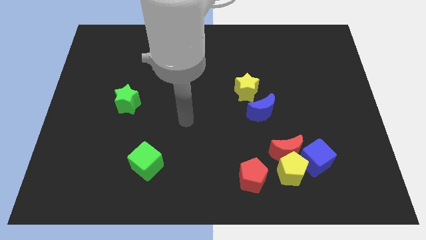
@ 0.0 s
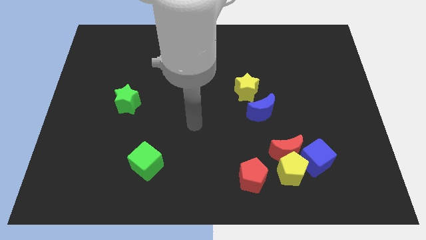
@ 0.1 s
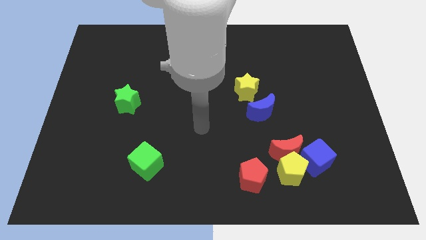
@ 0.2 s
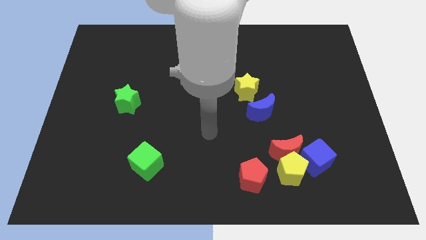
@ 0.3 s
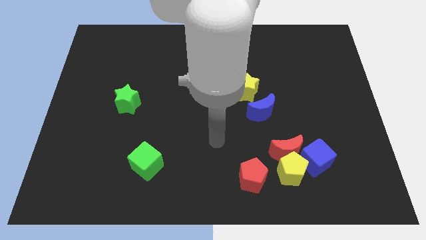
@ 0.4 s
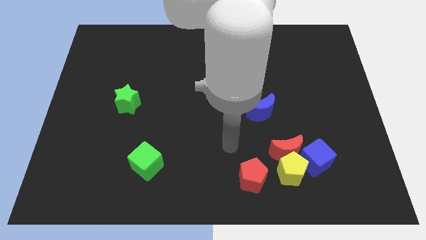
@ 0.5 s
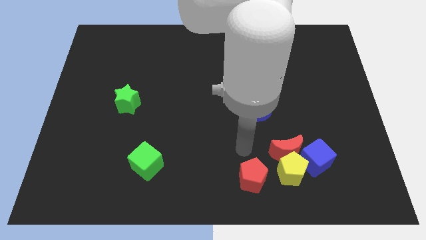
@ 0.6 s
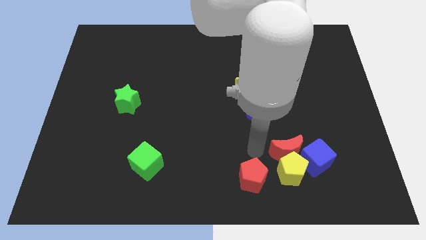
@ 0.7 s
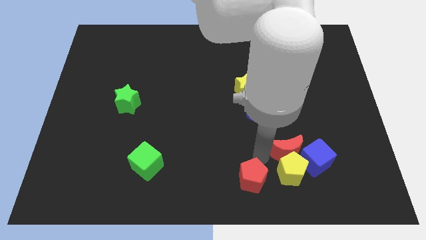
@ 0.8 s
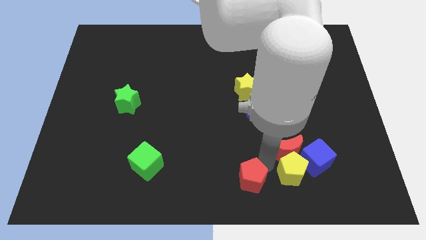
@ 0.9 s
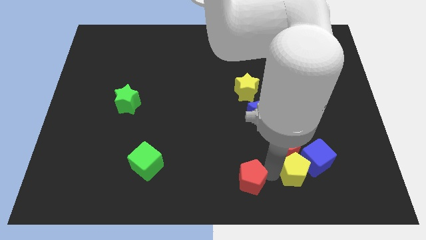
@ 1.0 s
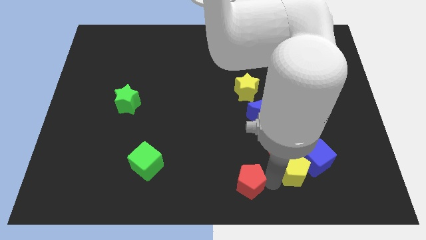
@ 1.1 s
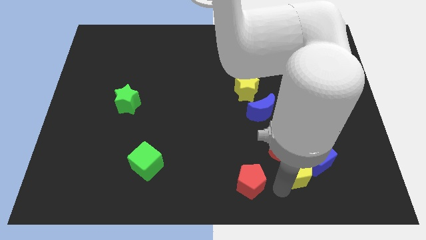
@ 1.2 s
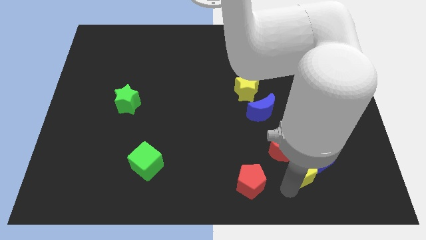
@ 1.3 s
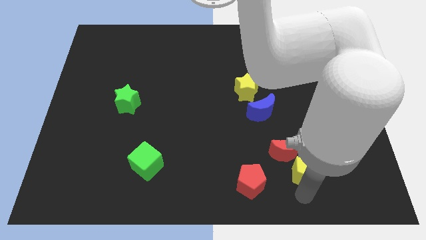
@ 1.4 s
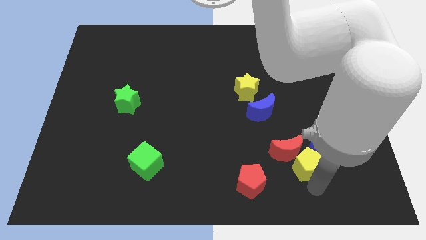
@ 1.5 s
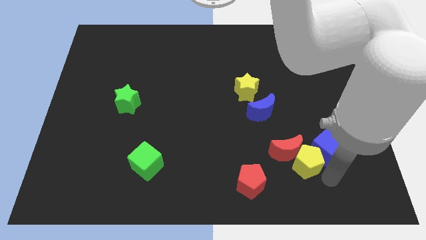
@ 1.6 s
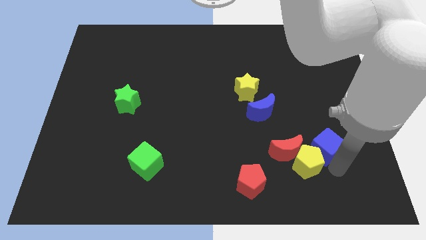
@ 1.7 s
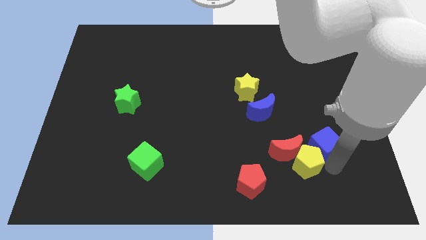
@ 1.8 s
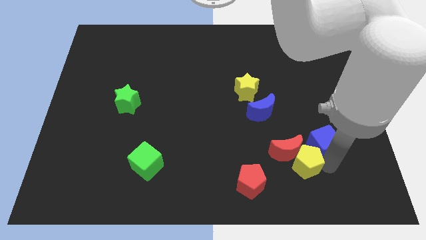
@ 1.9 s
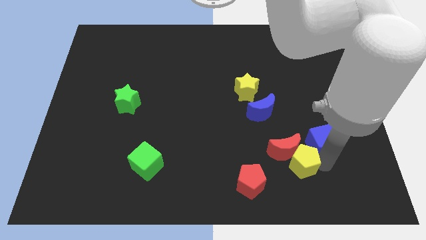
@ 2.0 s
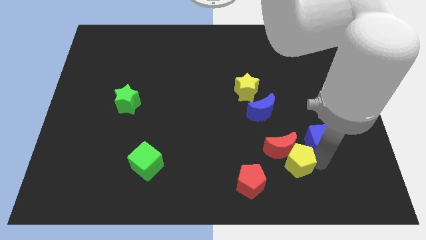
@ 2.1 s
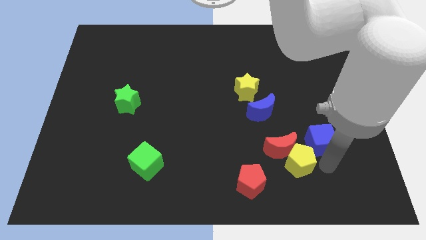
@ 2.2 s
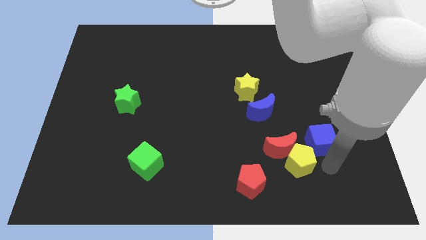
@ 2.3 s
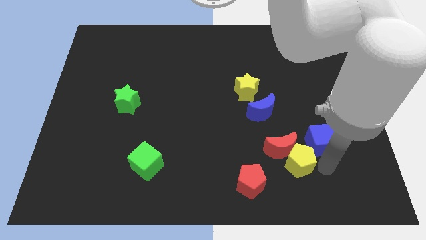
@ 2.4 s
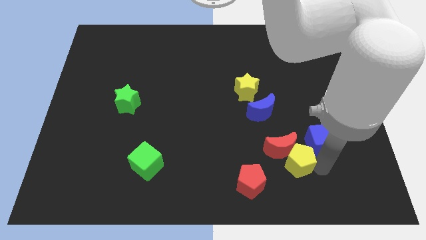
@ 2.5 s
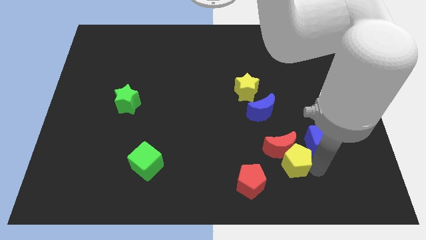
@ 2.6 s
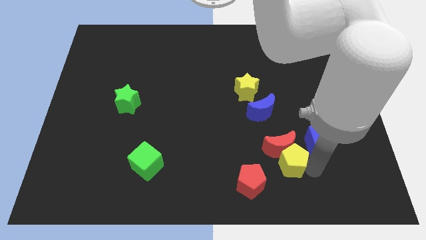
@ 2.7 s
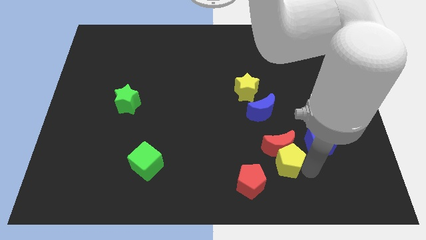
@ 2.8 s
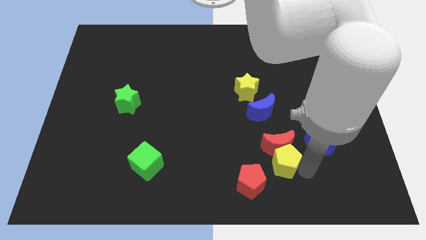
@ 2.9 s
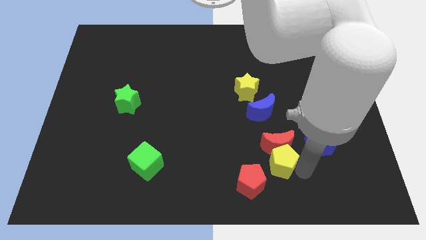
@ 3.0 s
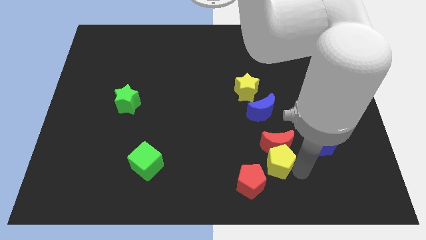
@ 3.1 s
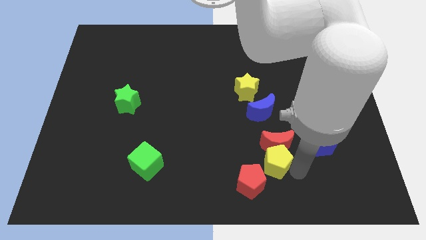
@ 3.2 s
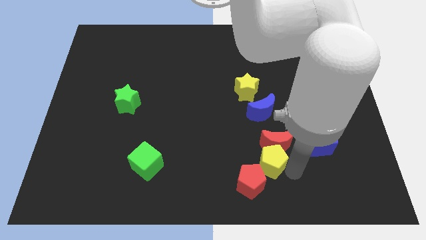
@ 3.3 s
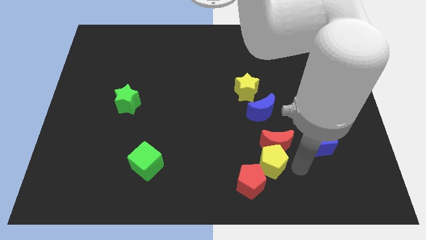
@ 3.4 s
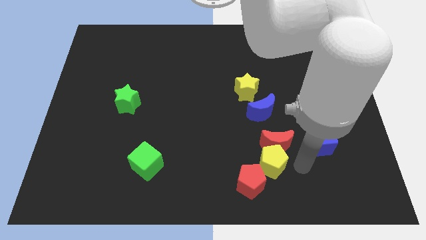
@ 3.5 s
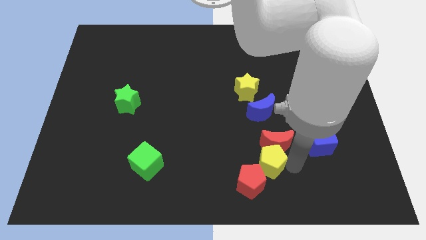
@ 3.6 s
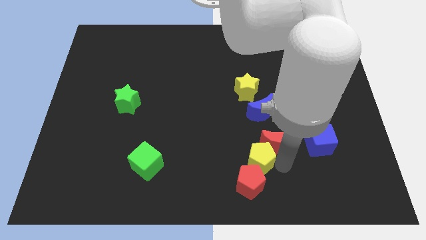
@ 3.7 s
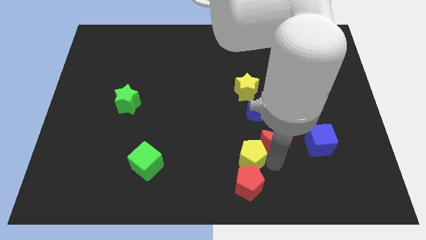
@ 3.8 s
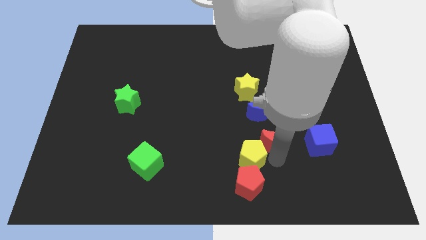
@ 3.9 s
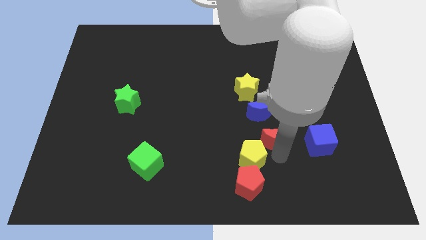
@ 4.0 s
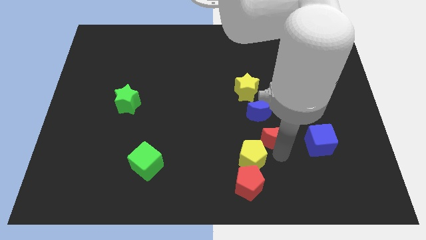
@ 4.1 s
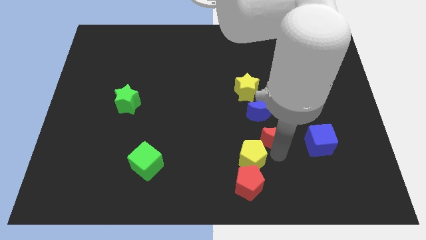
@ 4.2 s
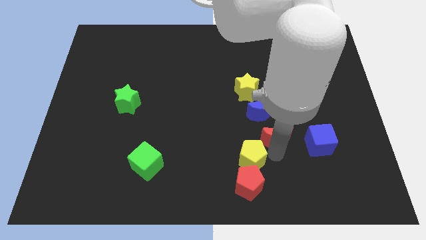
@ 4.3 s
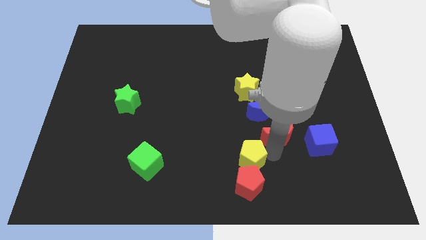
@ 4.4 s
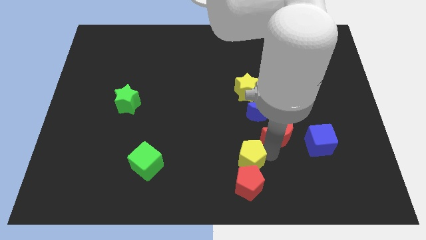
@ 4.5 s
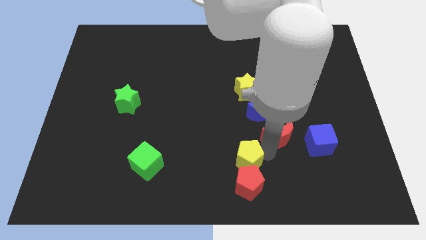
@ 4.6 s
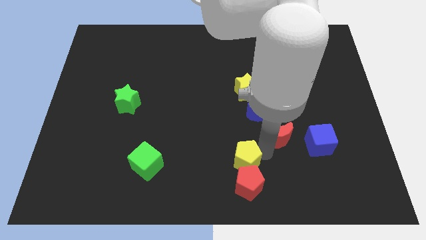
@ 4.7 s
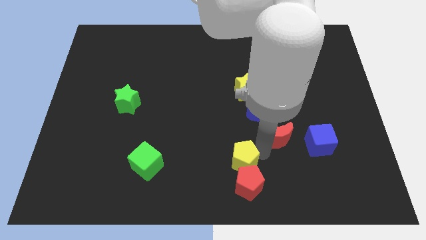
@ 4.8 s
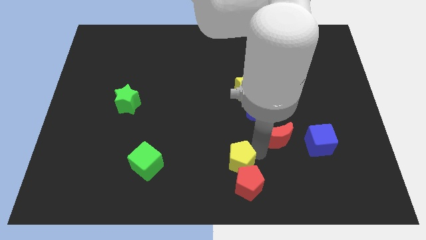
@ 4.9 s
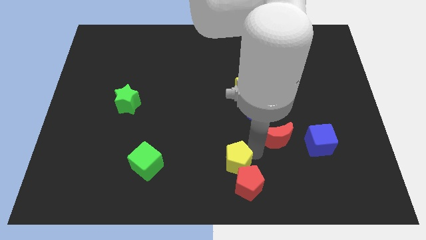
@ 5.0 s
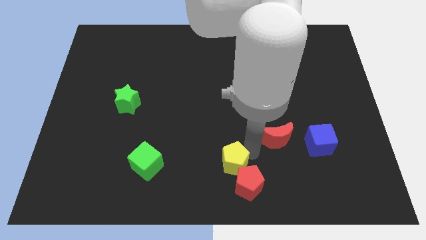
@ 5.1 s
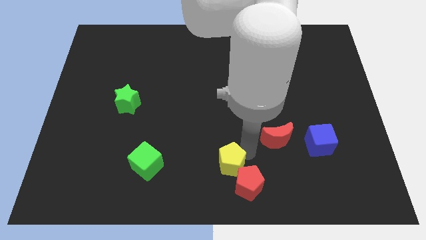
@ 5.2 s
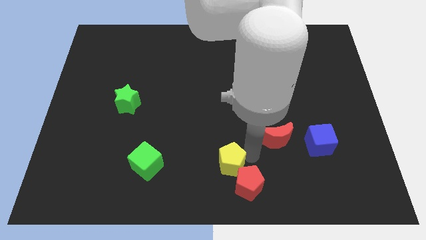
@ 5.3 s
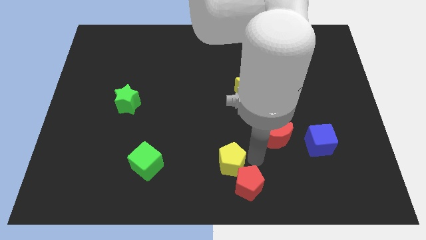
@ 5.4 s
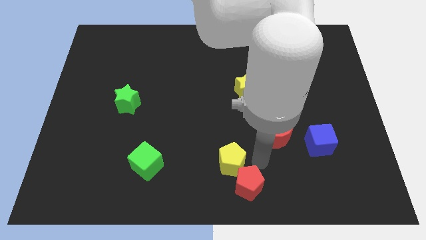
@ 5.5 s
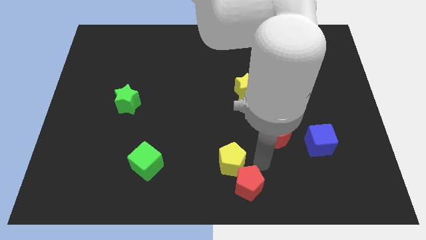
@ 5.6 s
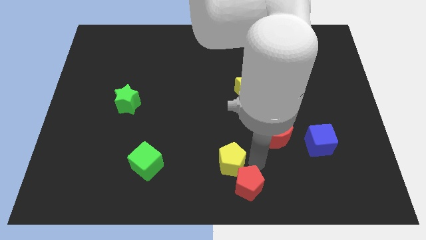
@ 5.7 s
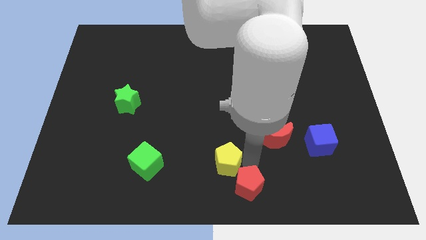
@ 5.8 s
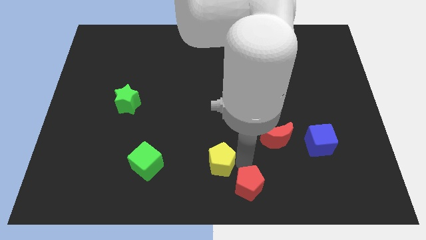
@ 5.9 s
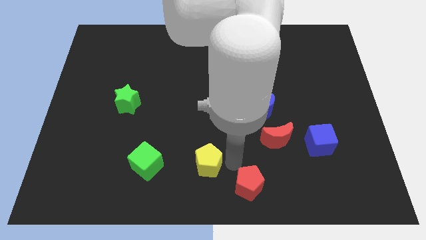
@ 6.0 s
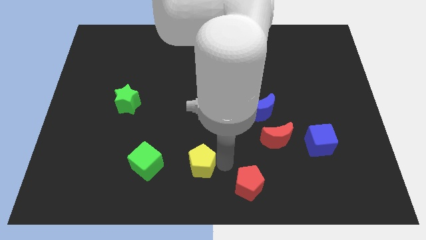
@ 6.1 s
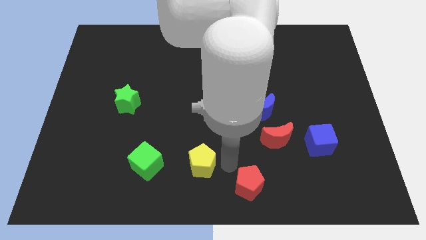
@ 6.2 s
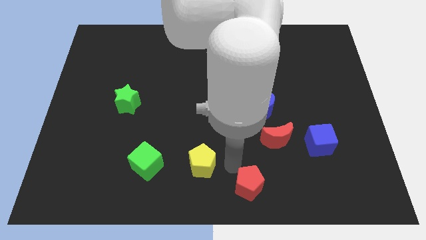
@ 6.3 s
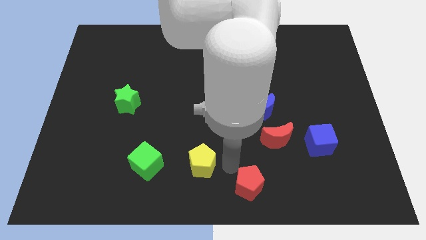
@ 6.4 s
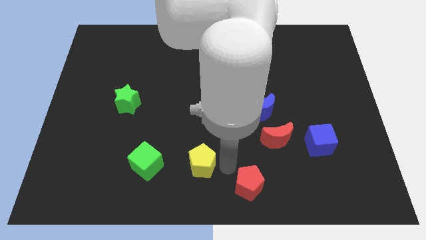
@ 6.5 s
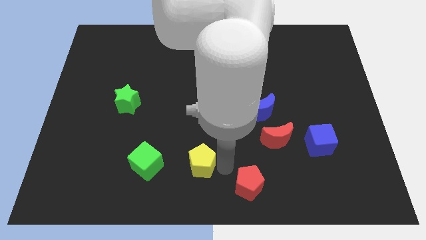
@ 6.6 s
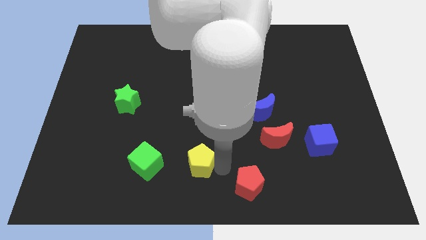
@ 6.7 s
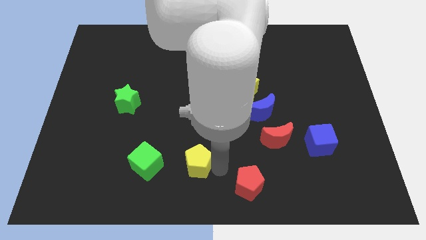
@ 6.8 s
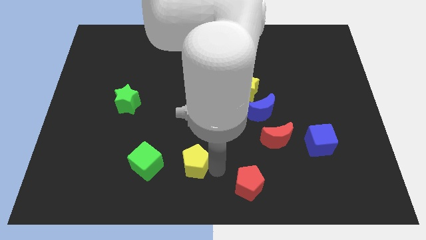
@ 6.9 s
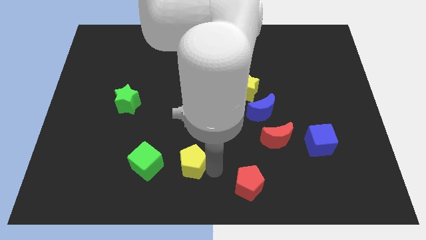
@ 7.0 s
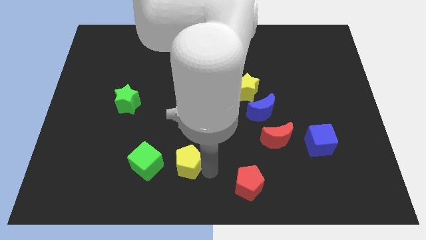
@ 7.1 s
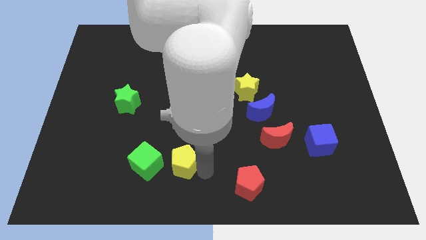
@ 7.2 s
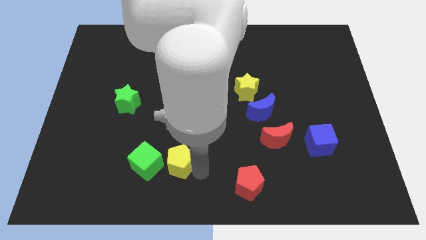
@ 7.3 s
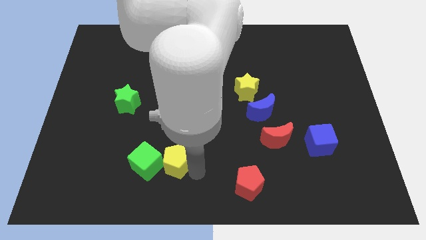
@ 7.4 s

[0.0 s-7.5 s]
push the yellow pentagon close to the green cube
